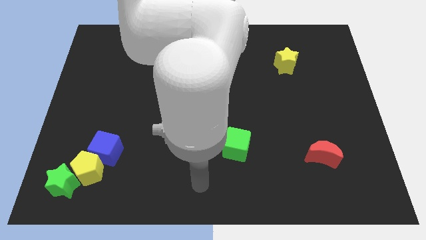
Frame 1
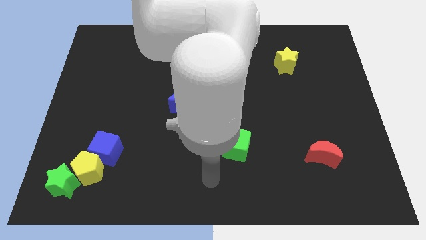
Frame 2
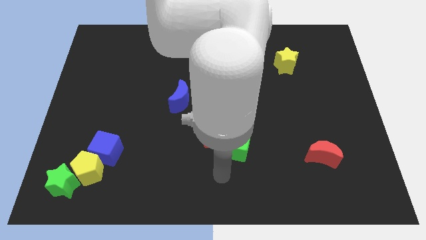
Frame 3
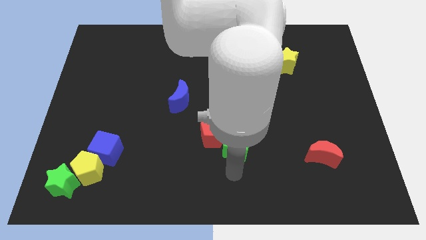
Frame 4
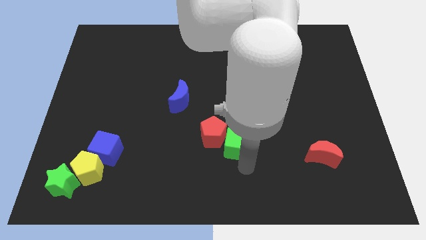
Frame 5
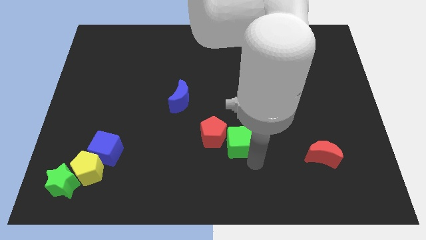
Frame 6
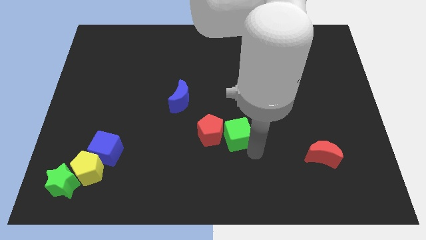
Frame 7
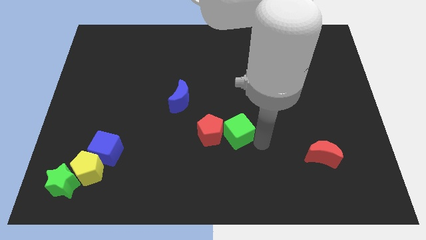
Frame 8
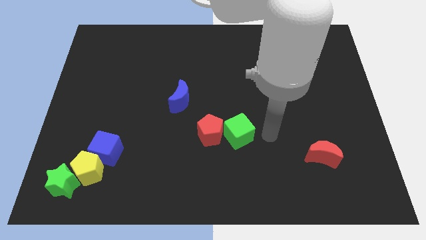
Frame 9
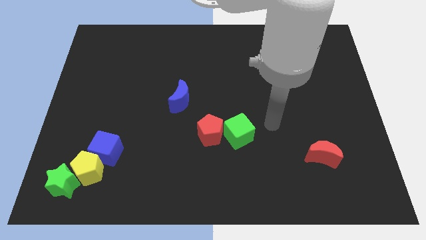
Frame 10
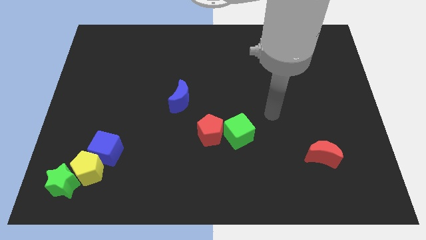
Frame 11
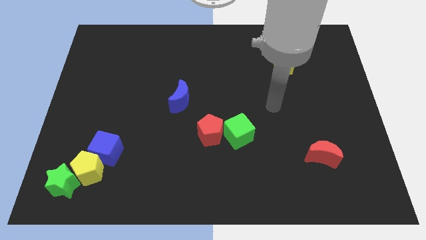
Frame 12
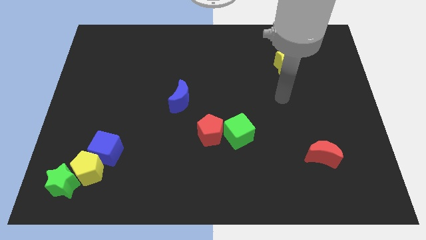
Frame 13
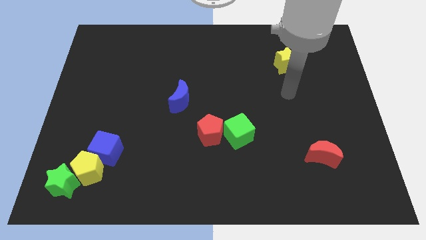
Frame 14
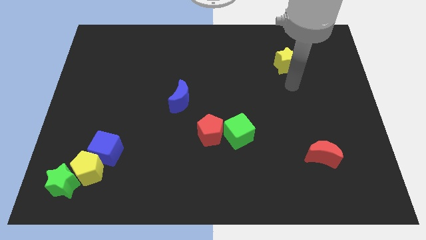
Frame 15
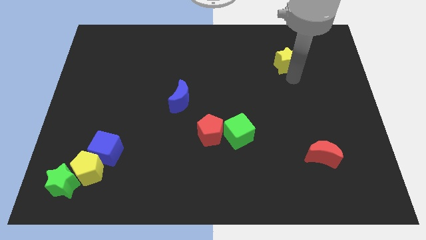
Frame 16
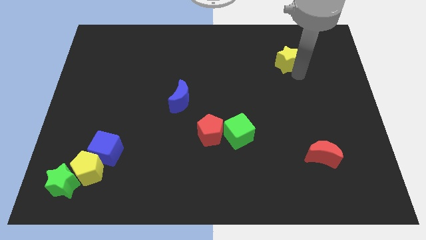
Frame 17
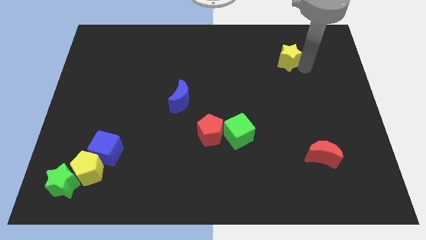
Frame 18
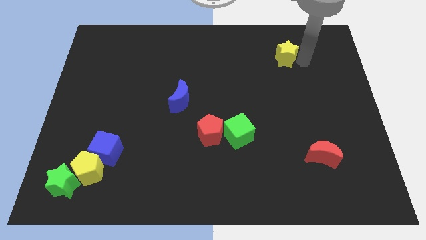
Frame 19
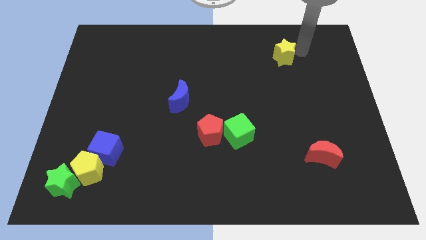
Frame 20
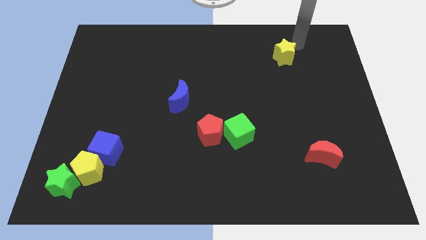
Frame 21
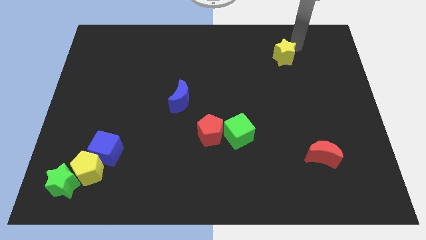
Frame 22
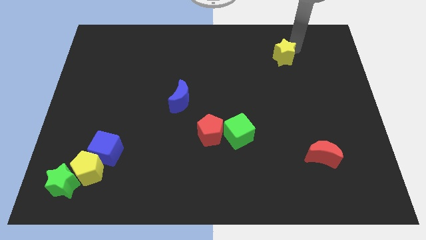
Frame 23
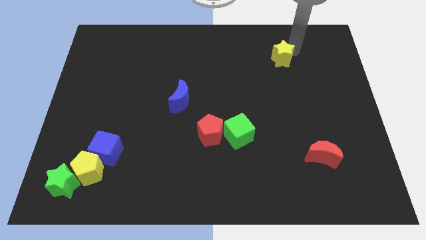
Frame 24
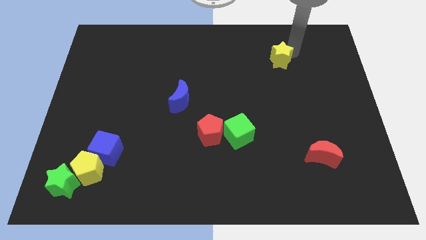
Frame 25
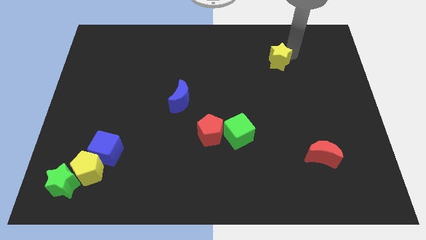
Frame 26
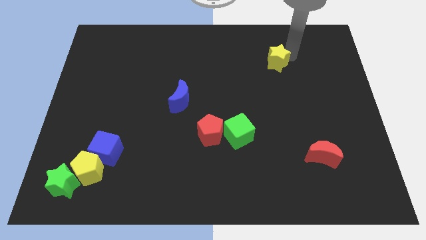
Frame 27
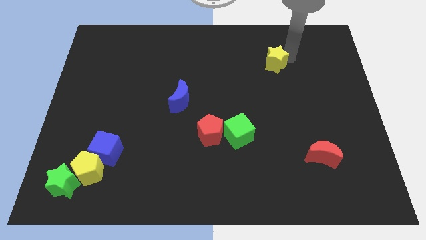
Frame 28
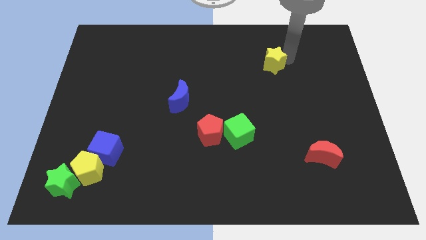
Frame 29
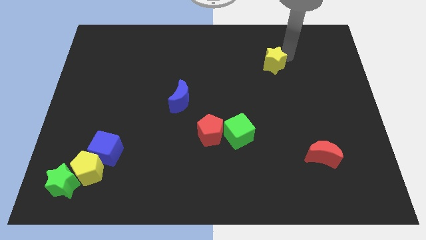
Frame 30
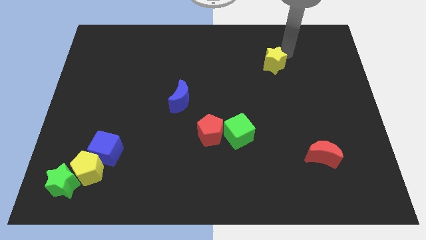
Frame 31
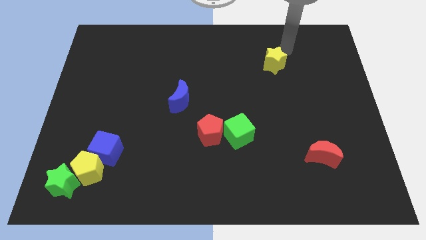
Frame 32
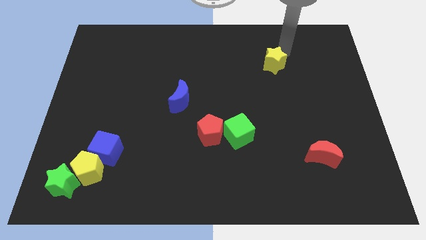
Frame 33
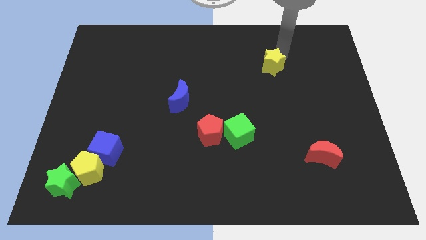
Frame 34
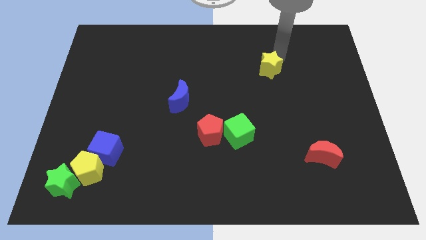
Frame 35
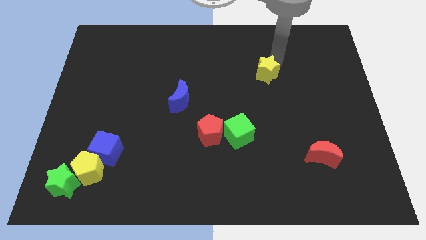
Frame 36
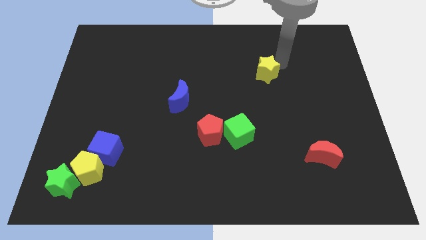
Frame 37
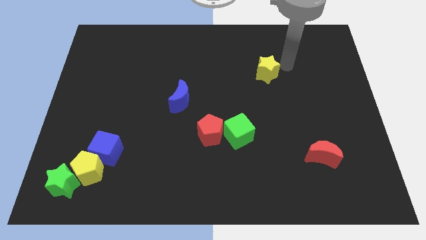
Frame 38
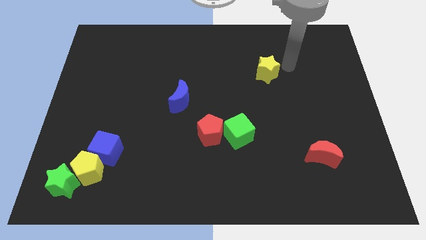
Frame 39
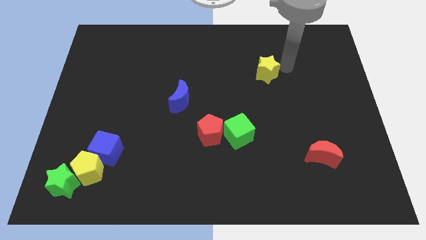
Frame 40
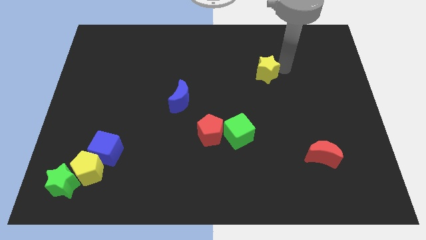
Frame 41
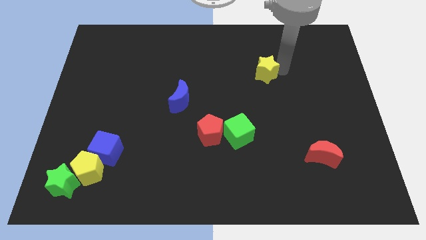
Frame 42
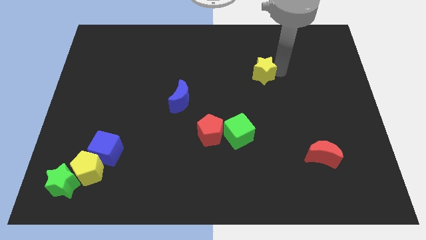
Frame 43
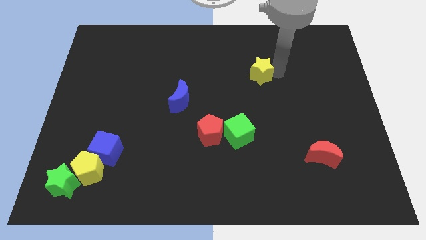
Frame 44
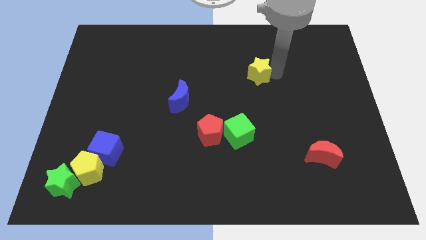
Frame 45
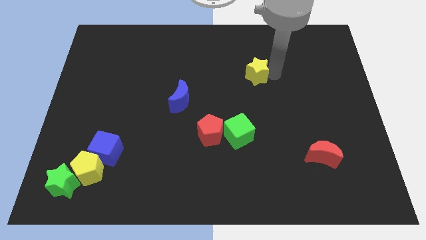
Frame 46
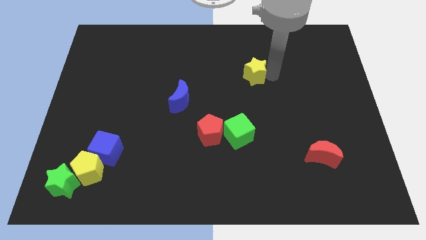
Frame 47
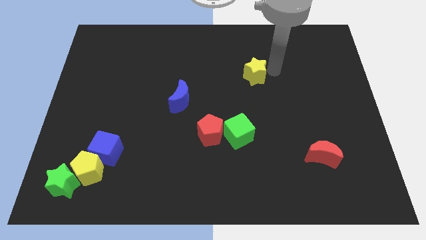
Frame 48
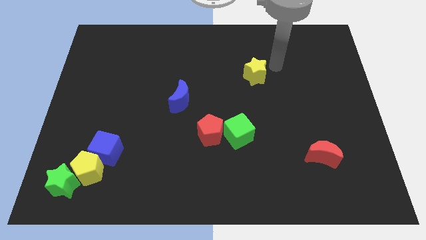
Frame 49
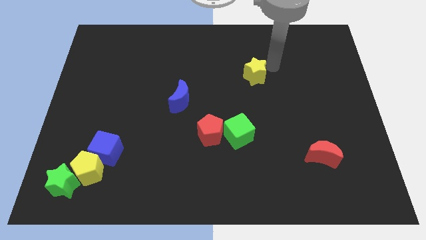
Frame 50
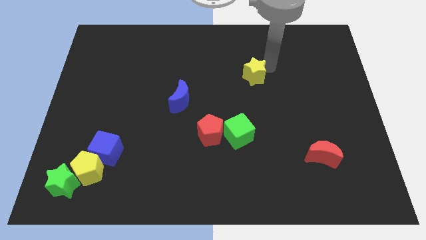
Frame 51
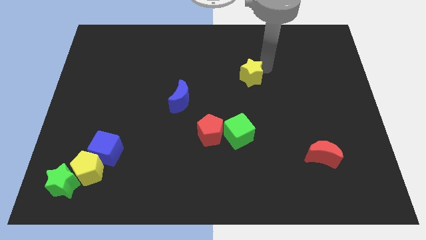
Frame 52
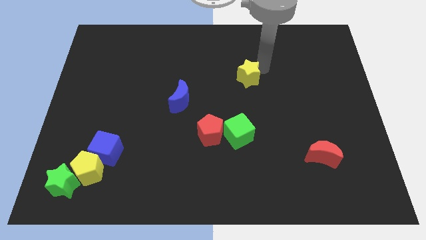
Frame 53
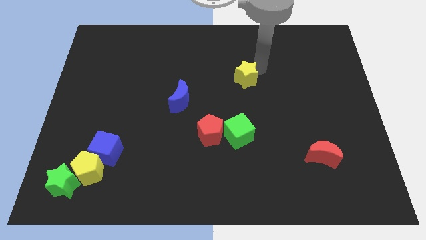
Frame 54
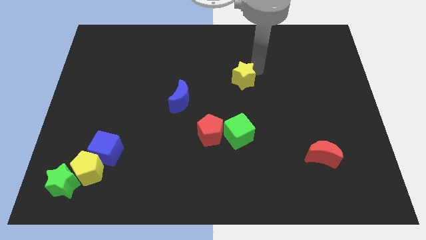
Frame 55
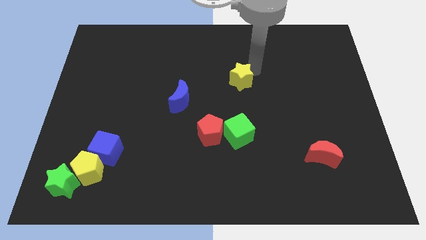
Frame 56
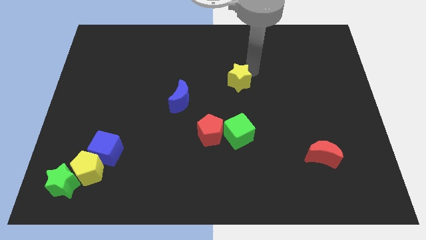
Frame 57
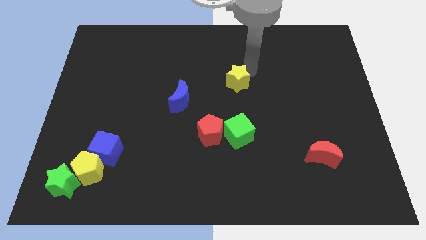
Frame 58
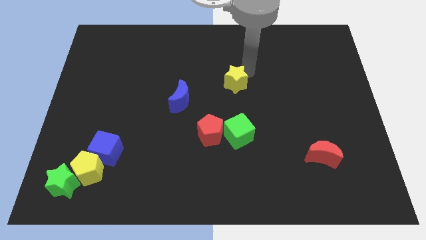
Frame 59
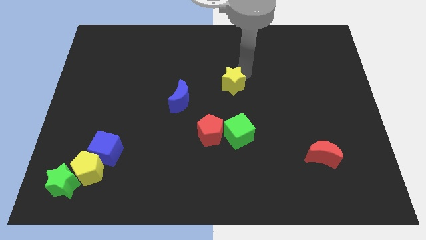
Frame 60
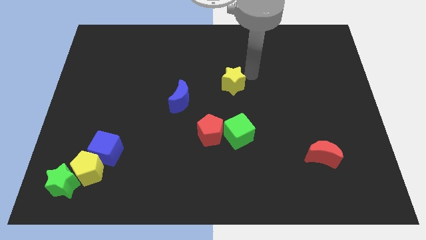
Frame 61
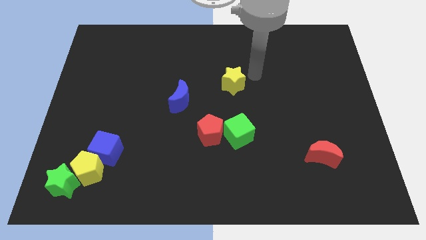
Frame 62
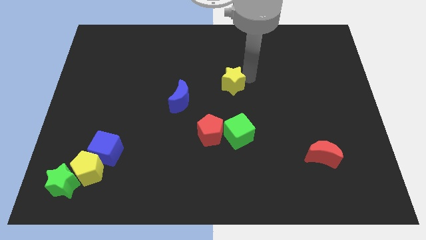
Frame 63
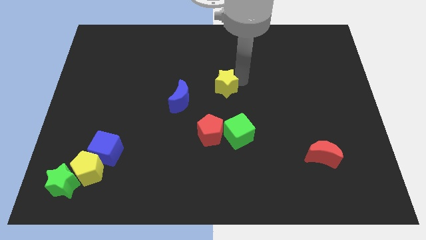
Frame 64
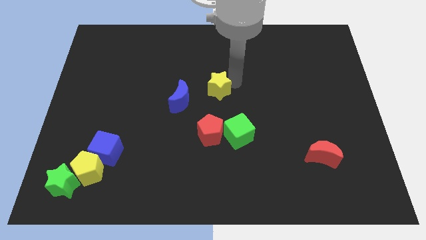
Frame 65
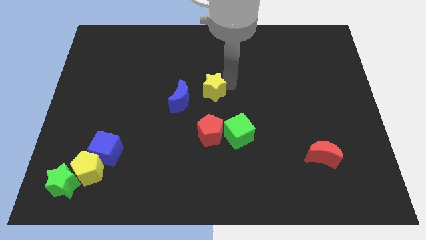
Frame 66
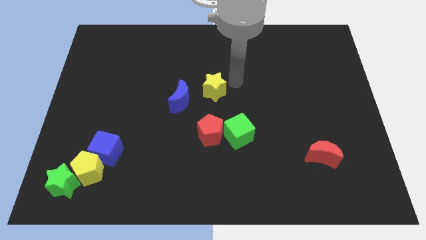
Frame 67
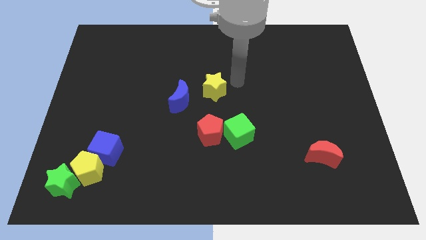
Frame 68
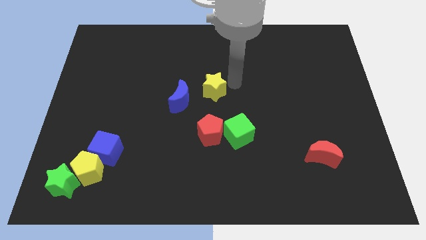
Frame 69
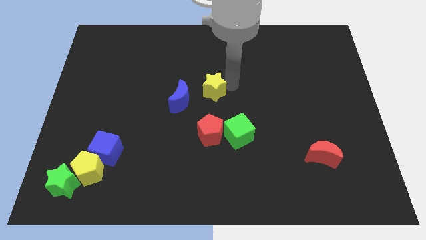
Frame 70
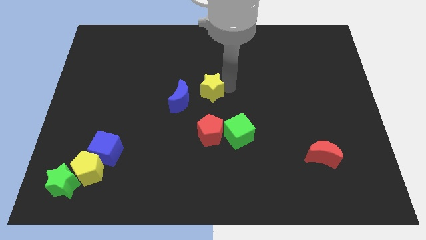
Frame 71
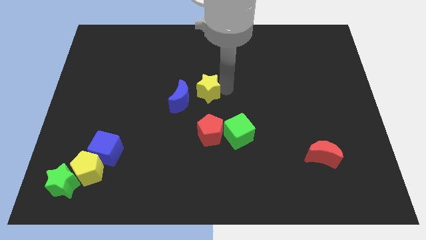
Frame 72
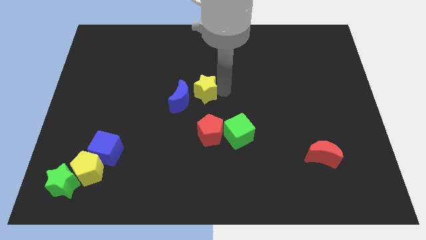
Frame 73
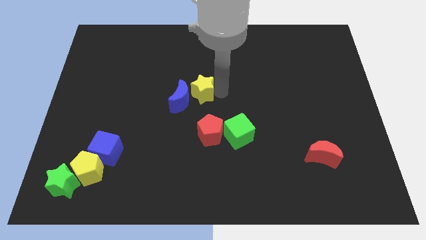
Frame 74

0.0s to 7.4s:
move the yellow star close to the blue moon
